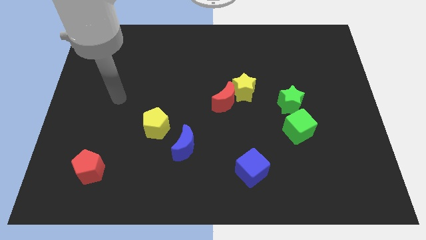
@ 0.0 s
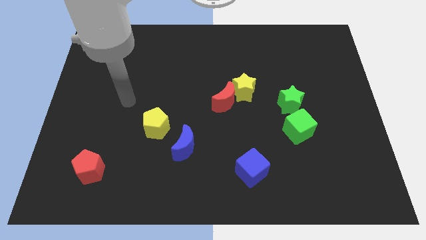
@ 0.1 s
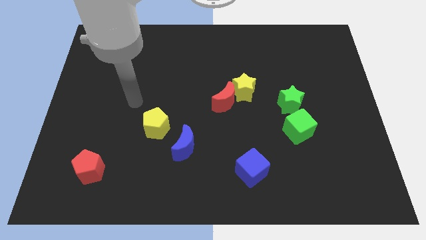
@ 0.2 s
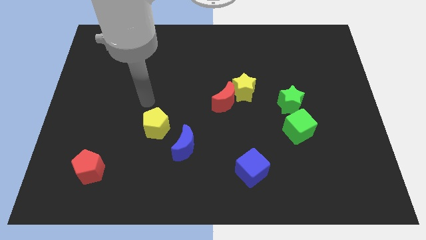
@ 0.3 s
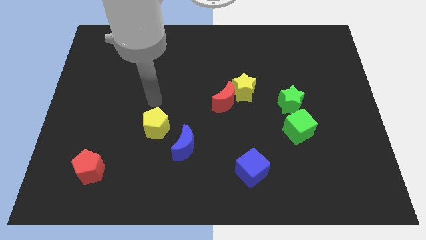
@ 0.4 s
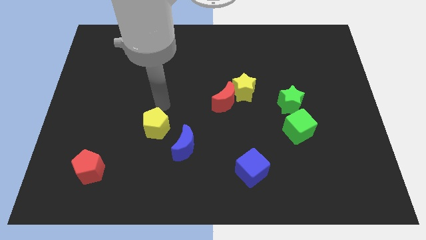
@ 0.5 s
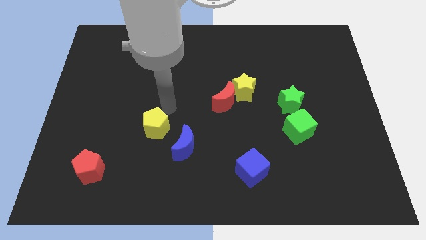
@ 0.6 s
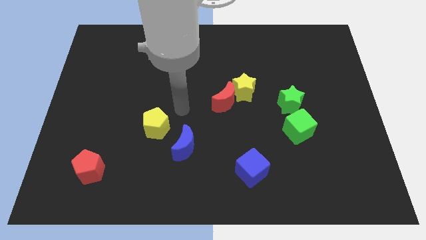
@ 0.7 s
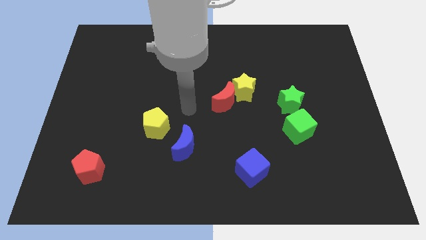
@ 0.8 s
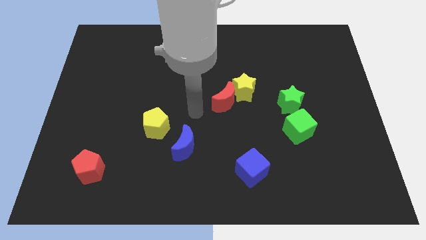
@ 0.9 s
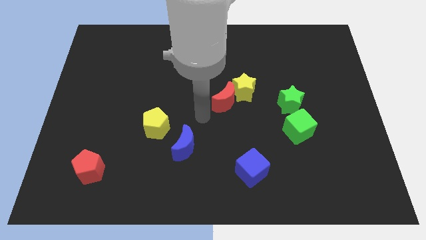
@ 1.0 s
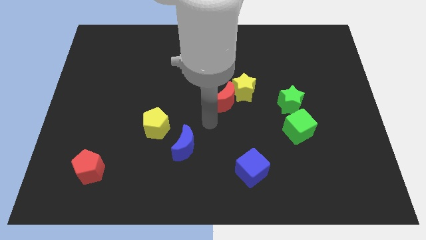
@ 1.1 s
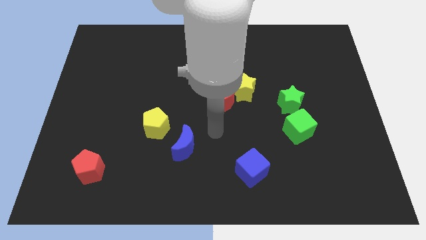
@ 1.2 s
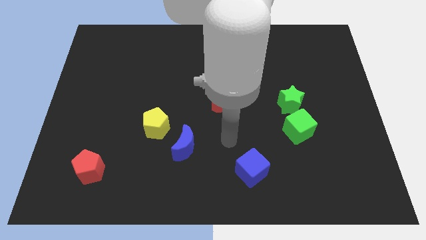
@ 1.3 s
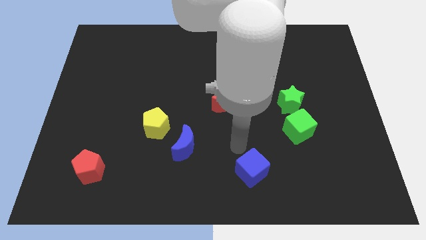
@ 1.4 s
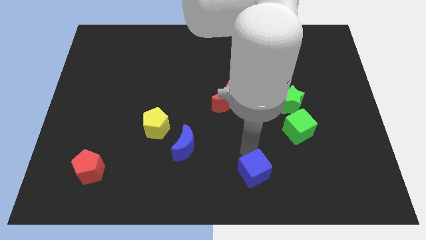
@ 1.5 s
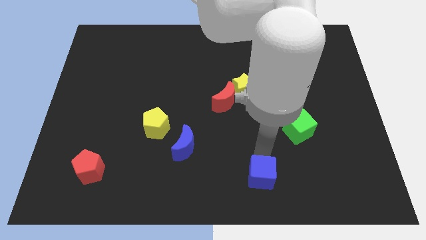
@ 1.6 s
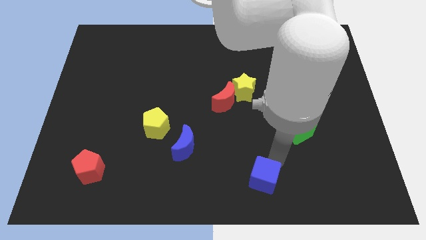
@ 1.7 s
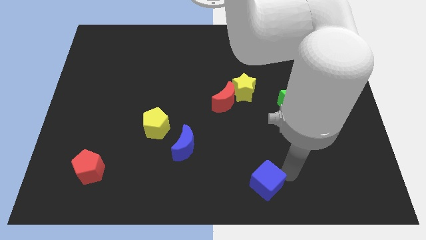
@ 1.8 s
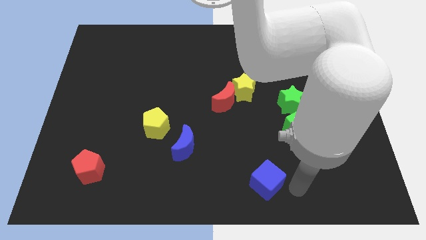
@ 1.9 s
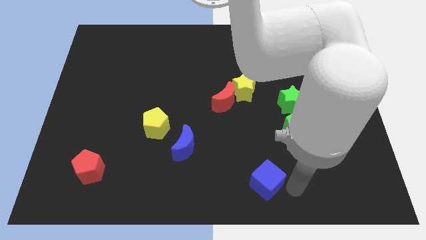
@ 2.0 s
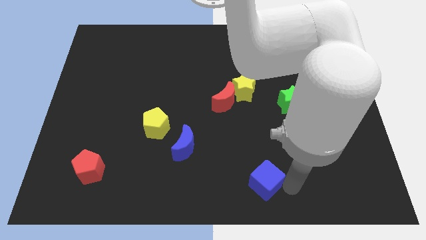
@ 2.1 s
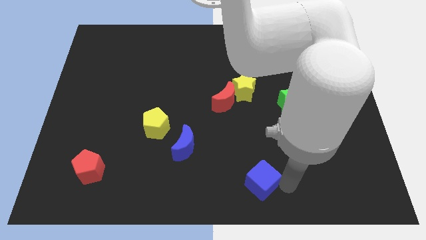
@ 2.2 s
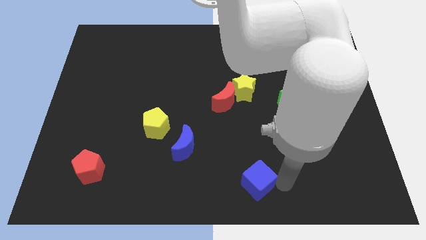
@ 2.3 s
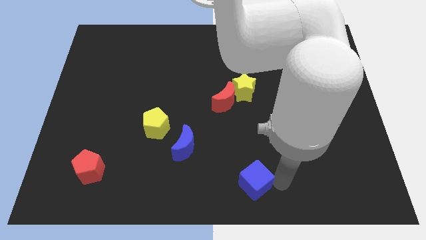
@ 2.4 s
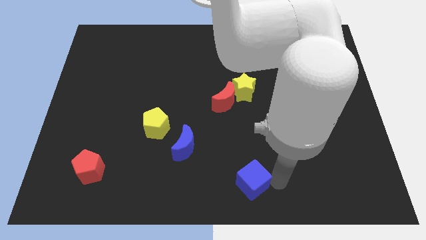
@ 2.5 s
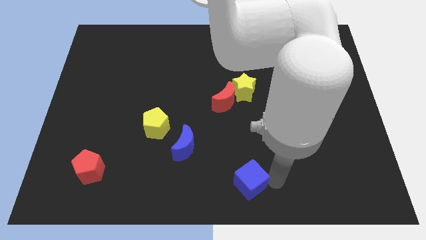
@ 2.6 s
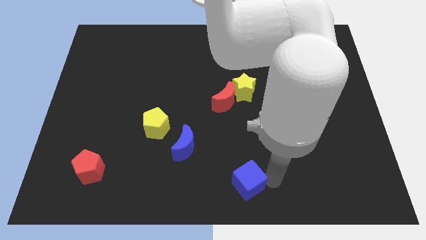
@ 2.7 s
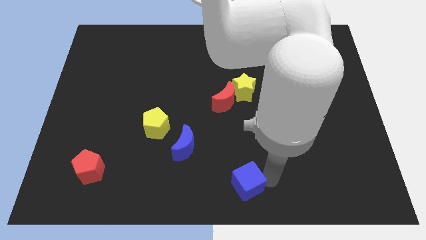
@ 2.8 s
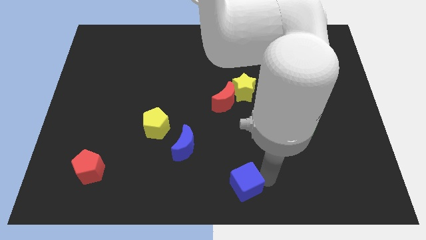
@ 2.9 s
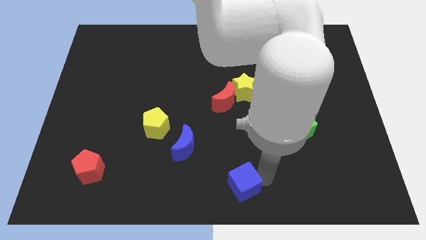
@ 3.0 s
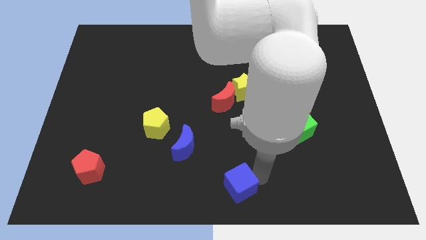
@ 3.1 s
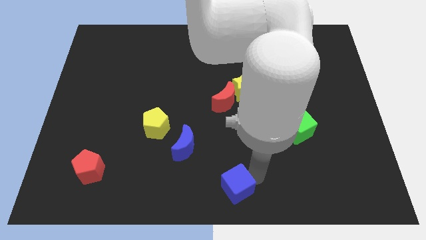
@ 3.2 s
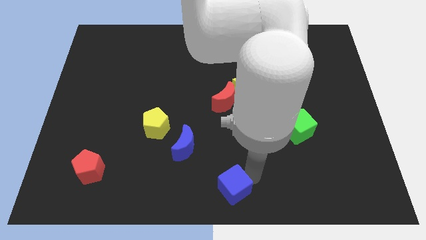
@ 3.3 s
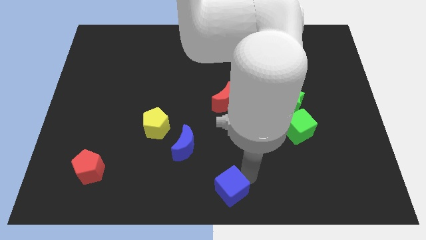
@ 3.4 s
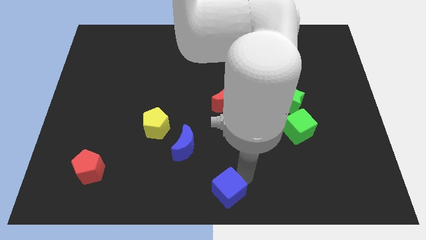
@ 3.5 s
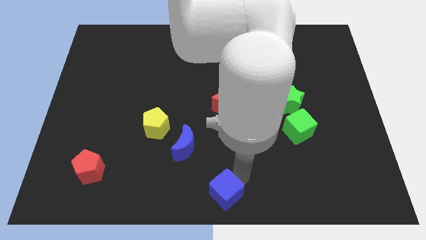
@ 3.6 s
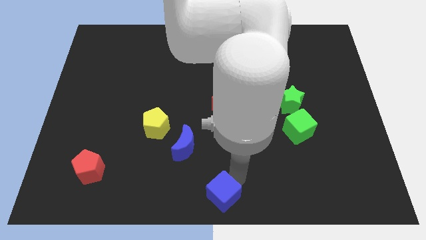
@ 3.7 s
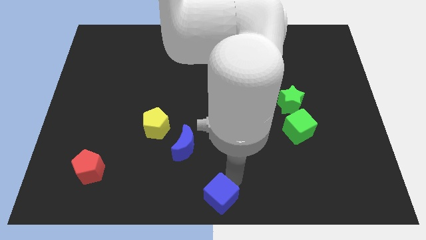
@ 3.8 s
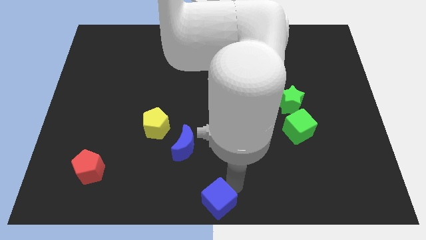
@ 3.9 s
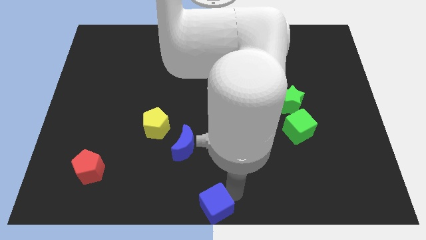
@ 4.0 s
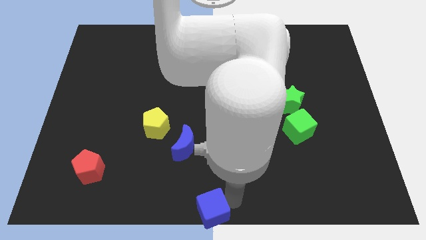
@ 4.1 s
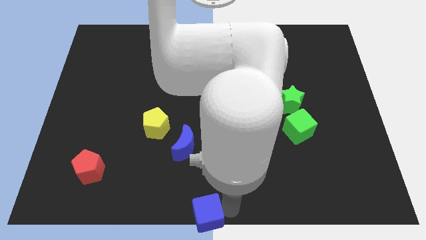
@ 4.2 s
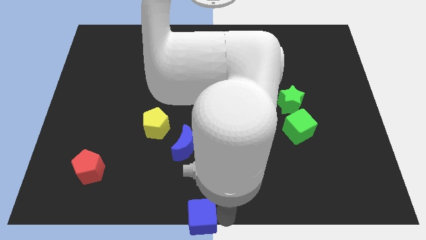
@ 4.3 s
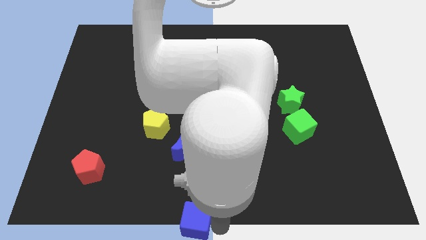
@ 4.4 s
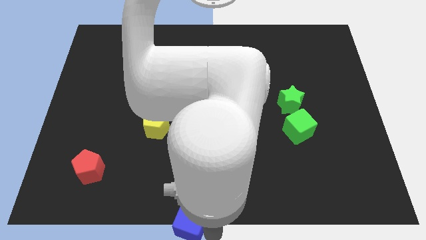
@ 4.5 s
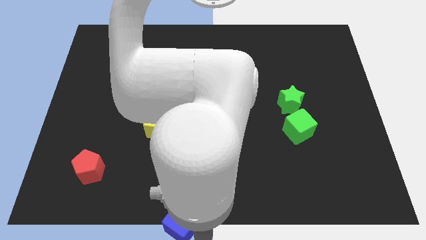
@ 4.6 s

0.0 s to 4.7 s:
push the blue cube slightly left

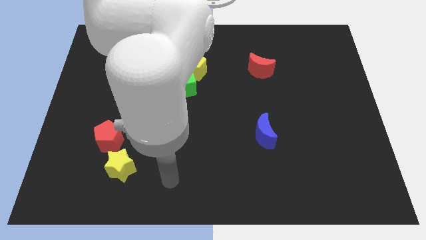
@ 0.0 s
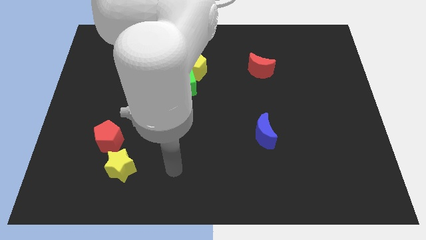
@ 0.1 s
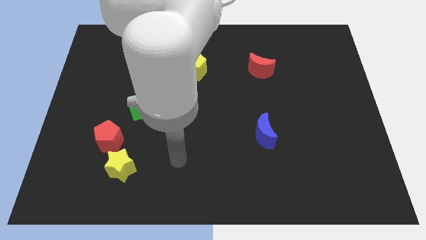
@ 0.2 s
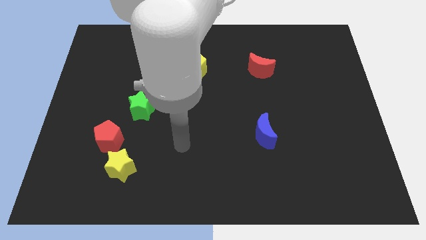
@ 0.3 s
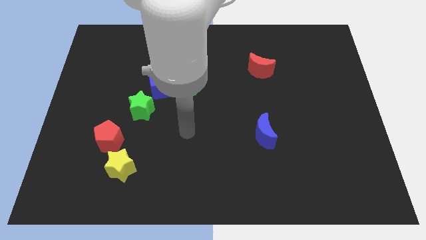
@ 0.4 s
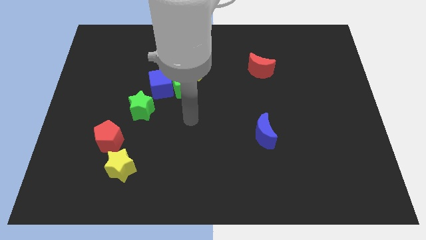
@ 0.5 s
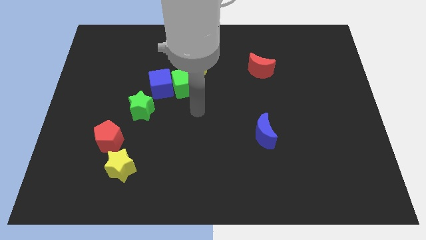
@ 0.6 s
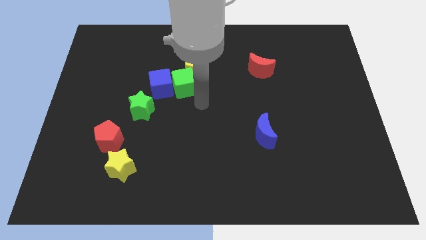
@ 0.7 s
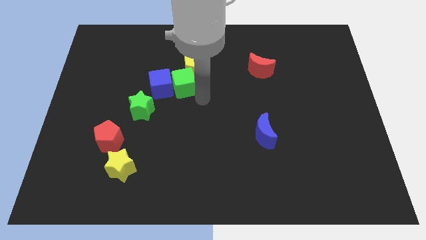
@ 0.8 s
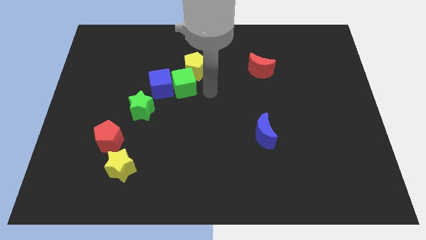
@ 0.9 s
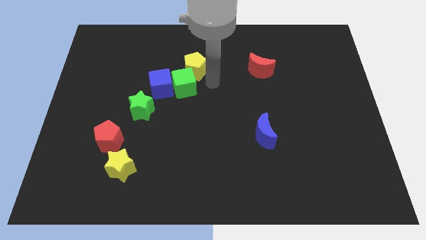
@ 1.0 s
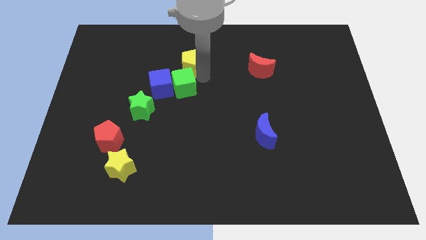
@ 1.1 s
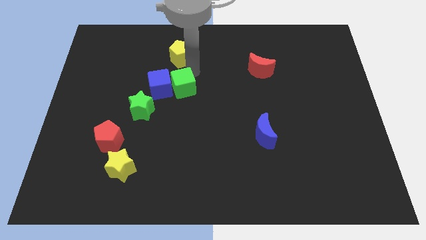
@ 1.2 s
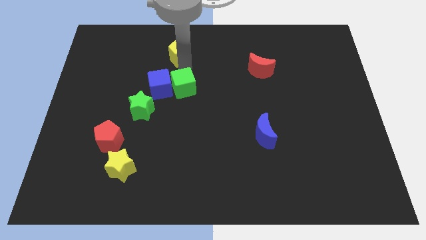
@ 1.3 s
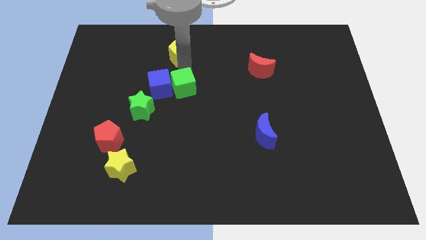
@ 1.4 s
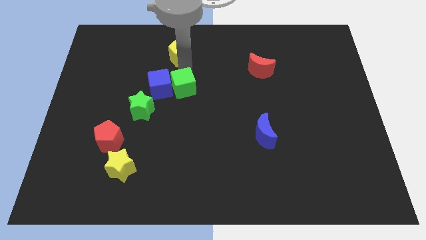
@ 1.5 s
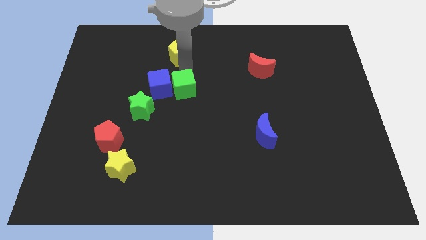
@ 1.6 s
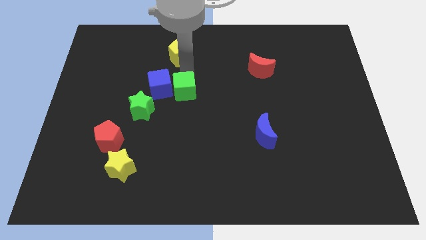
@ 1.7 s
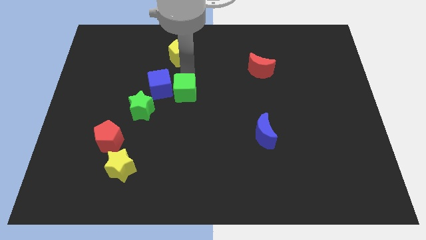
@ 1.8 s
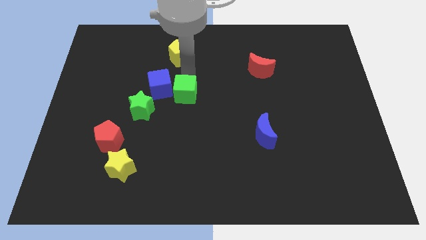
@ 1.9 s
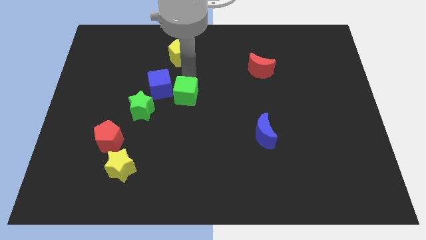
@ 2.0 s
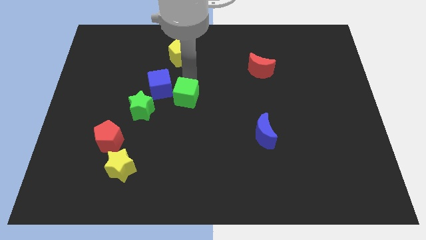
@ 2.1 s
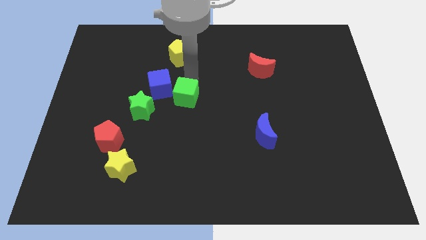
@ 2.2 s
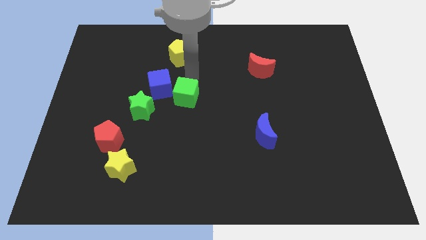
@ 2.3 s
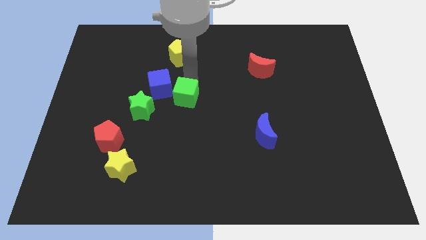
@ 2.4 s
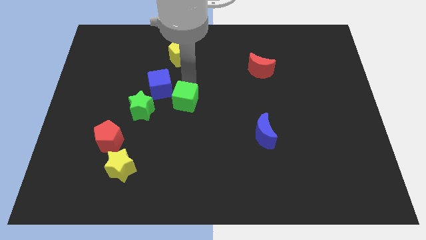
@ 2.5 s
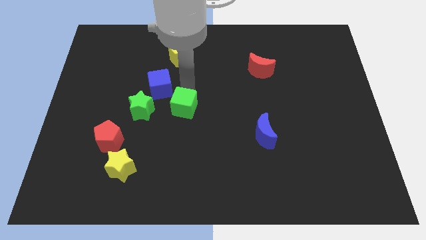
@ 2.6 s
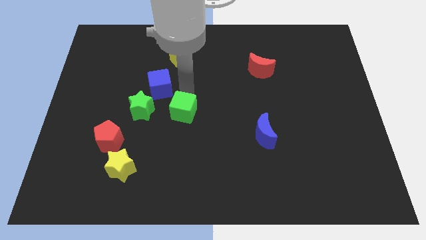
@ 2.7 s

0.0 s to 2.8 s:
slightly move the green cube down

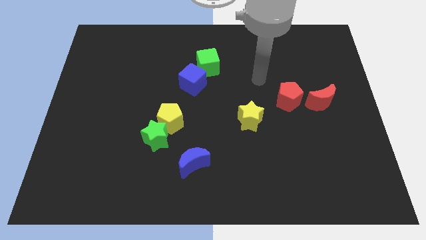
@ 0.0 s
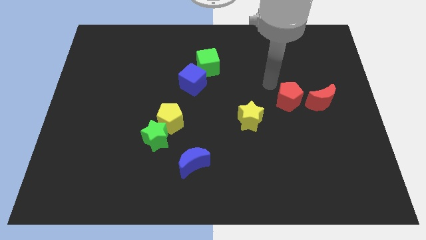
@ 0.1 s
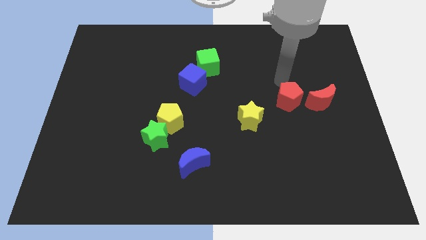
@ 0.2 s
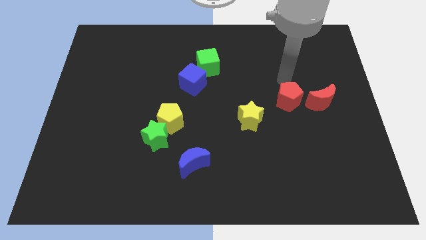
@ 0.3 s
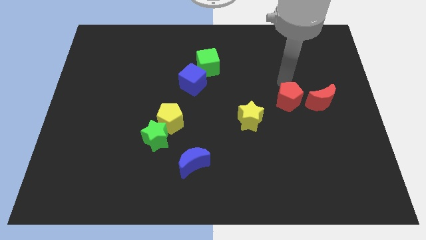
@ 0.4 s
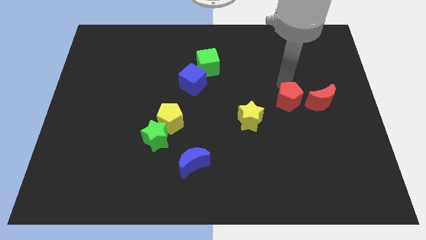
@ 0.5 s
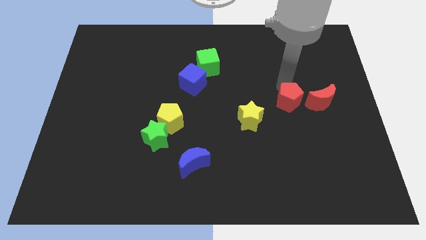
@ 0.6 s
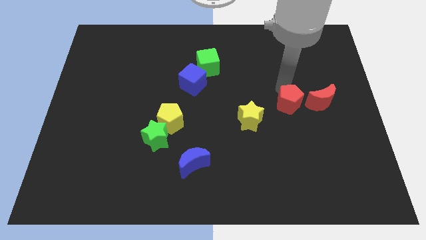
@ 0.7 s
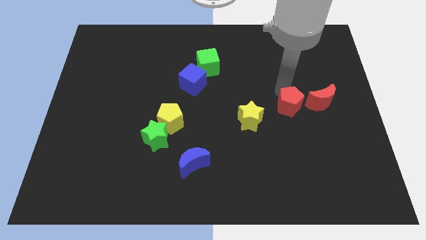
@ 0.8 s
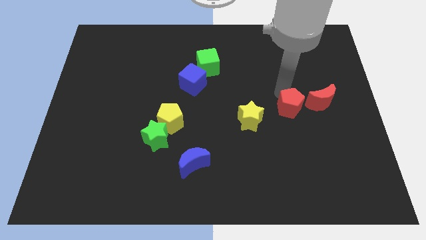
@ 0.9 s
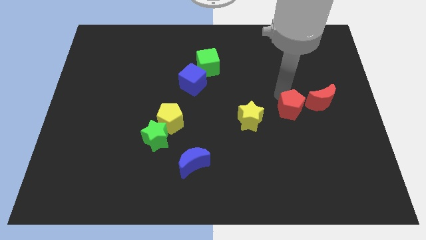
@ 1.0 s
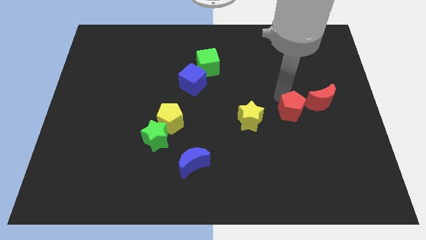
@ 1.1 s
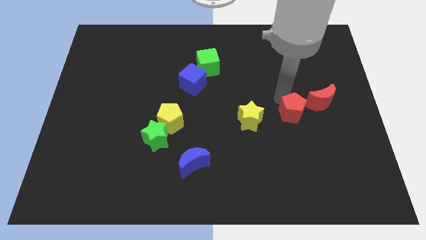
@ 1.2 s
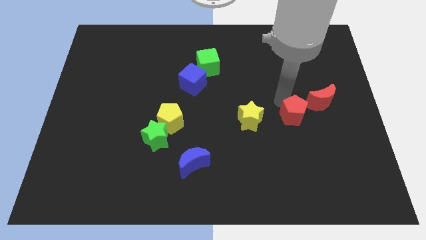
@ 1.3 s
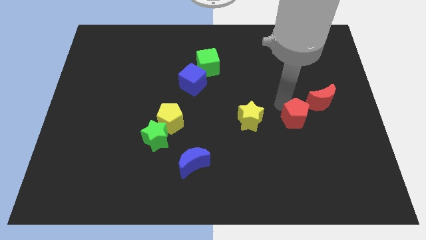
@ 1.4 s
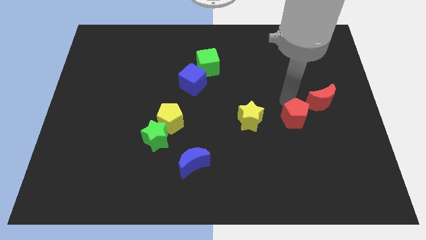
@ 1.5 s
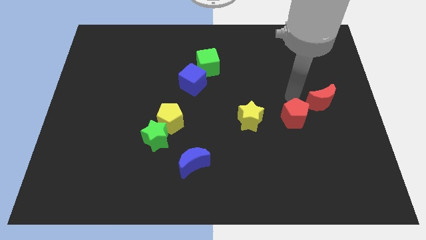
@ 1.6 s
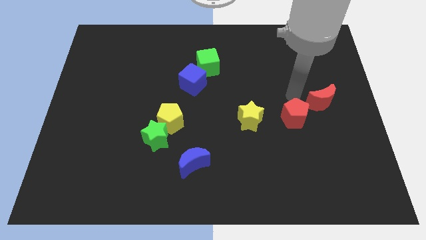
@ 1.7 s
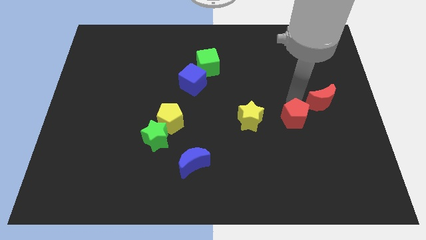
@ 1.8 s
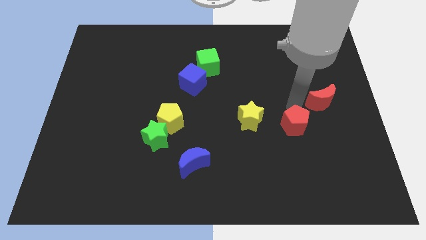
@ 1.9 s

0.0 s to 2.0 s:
push the red pentagon somewhat downwards
